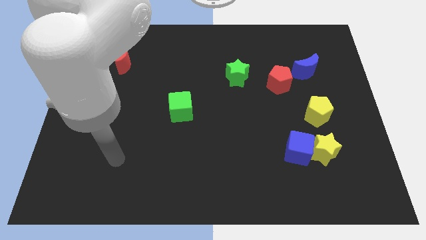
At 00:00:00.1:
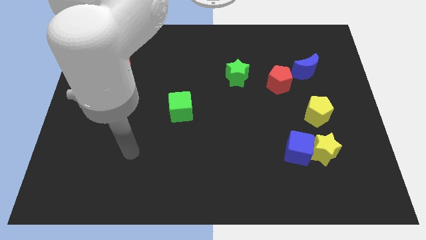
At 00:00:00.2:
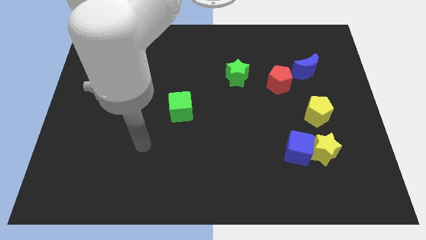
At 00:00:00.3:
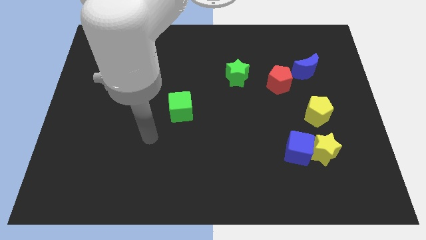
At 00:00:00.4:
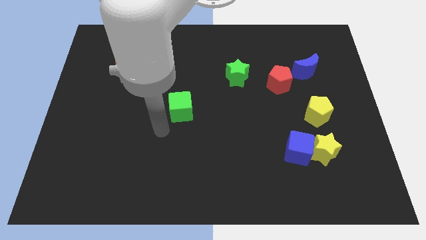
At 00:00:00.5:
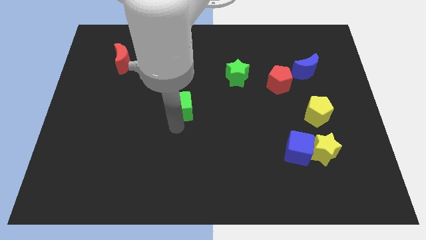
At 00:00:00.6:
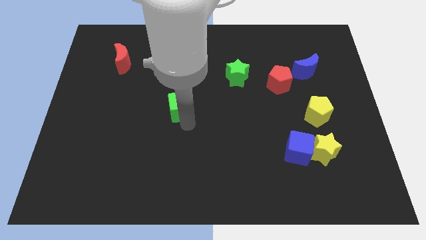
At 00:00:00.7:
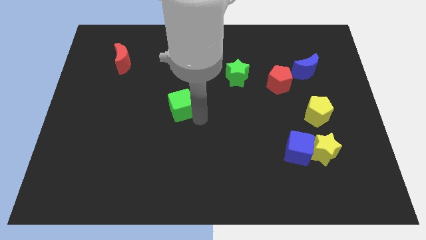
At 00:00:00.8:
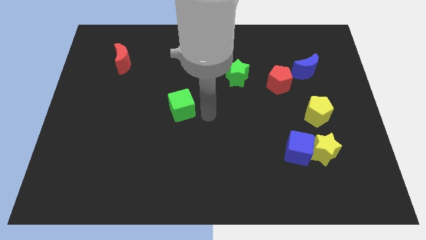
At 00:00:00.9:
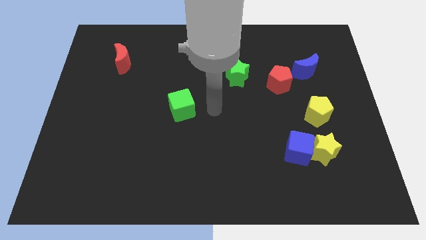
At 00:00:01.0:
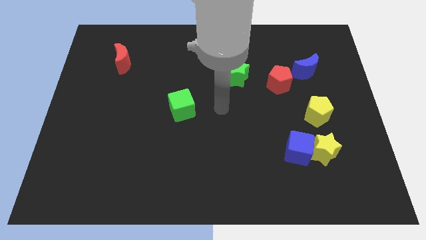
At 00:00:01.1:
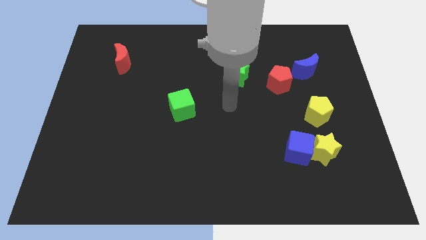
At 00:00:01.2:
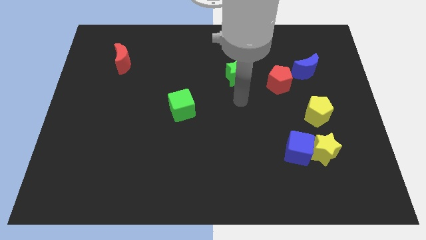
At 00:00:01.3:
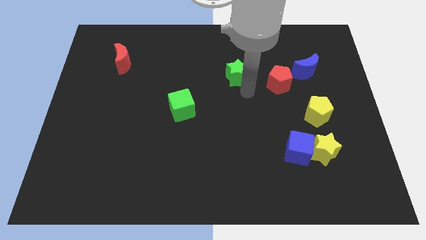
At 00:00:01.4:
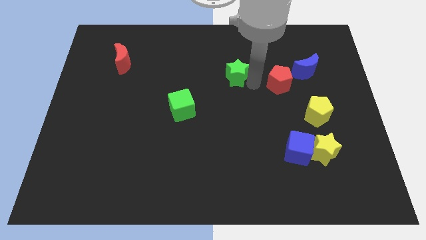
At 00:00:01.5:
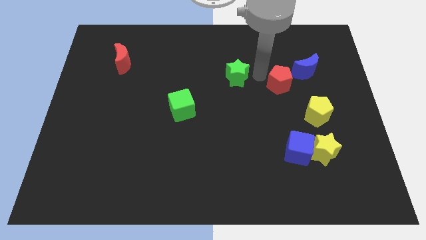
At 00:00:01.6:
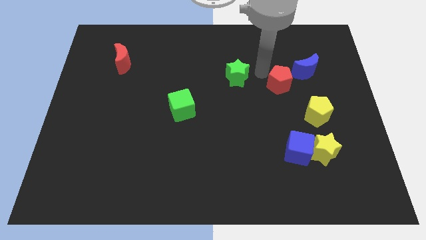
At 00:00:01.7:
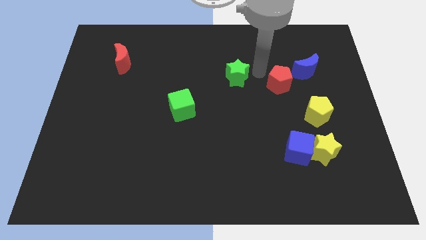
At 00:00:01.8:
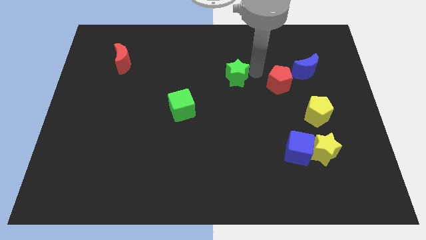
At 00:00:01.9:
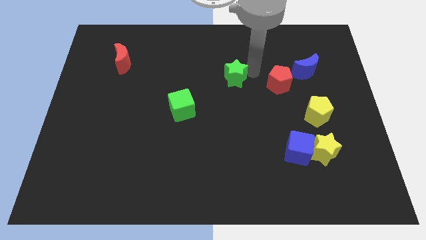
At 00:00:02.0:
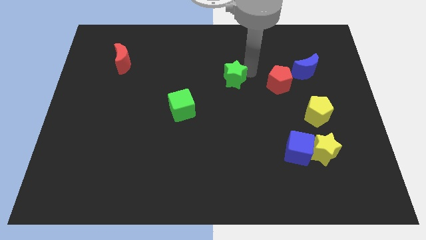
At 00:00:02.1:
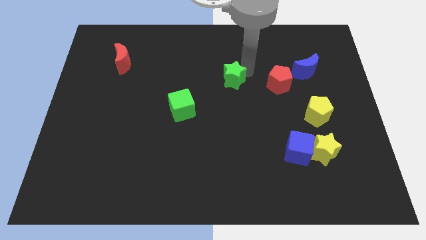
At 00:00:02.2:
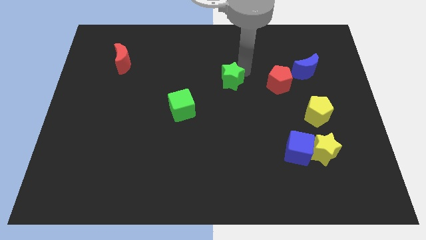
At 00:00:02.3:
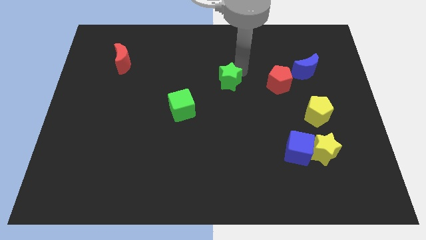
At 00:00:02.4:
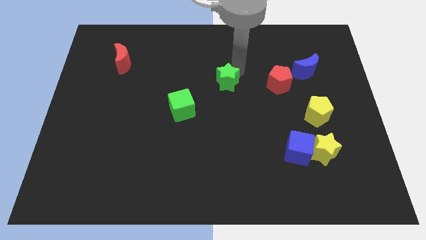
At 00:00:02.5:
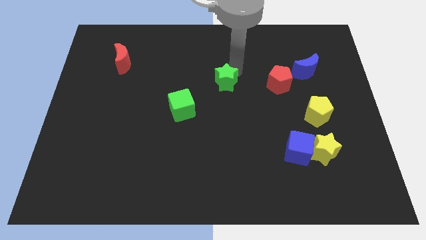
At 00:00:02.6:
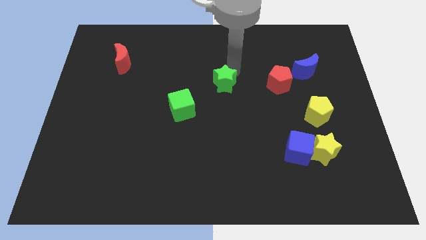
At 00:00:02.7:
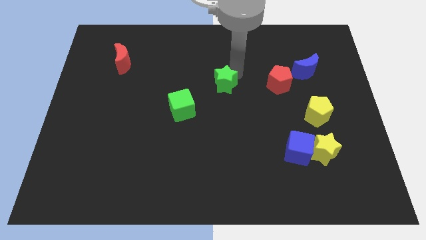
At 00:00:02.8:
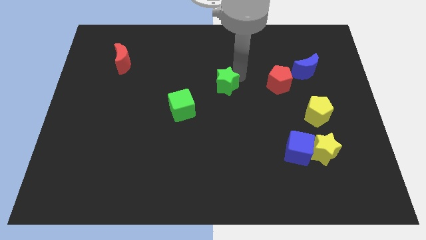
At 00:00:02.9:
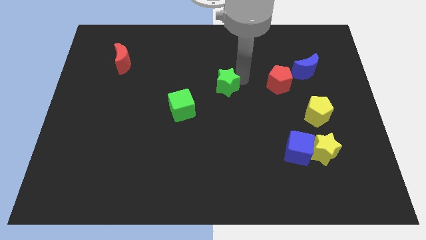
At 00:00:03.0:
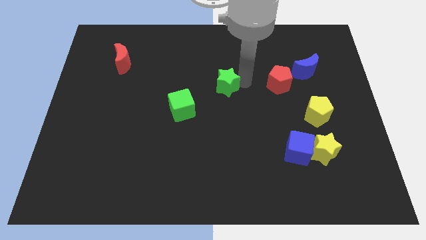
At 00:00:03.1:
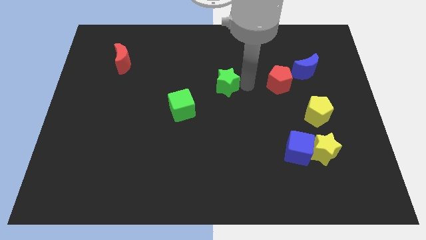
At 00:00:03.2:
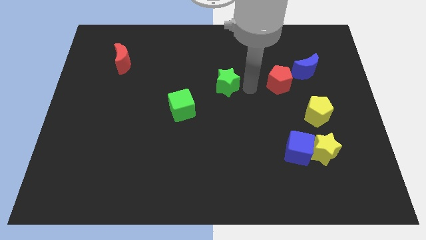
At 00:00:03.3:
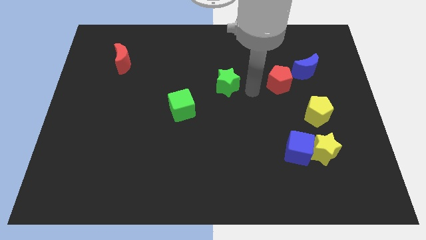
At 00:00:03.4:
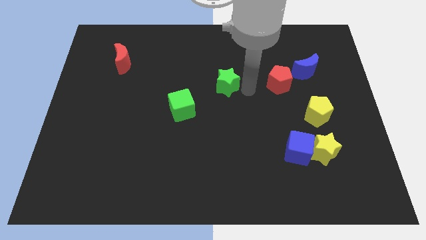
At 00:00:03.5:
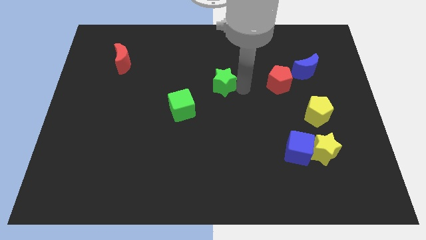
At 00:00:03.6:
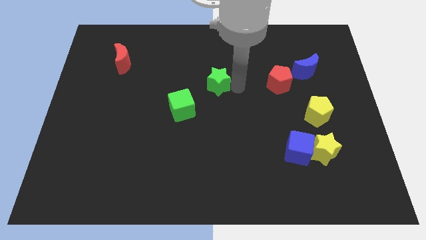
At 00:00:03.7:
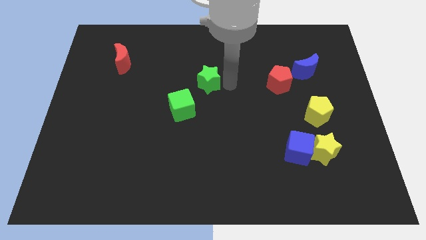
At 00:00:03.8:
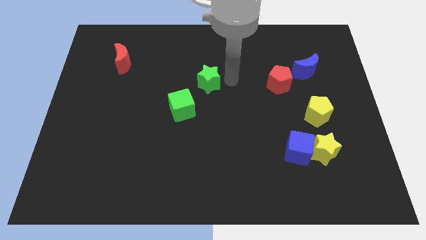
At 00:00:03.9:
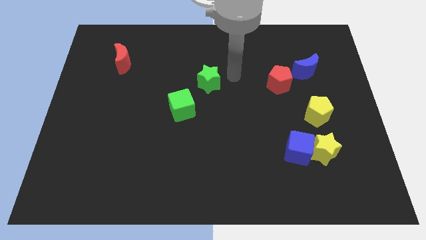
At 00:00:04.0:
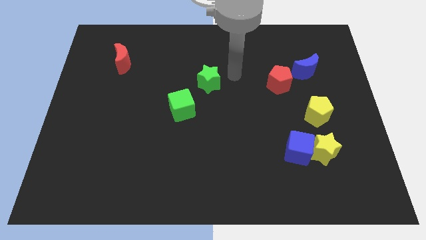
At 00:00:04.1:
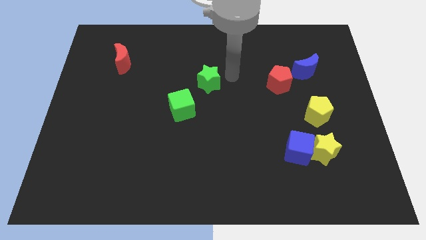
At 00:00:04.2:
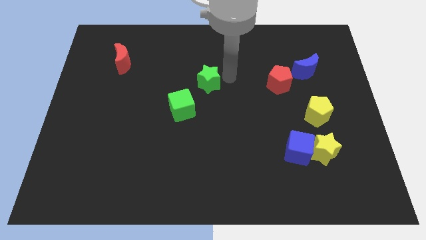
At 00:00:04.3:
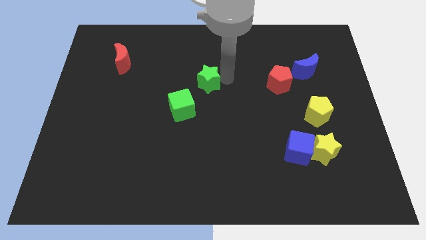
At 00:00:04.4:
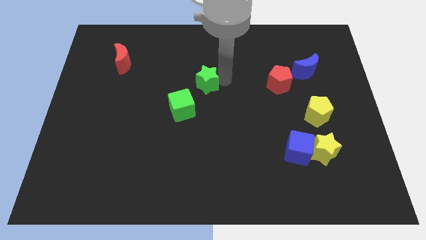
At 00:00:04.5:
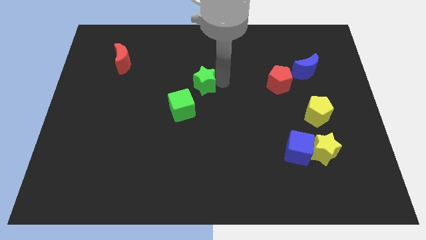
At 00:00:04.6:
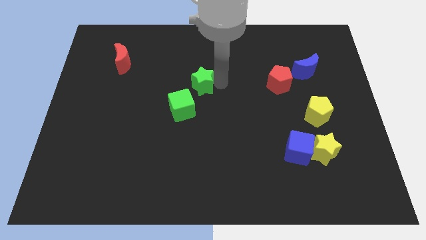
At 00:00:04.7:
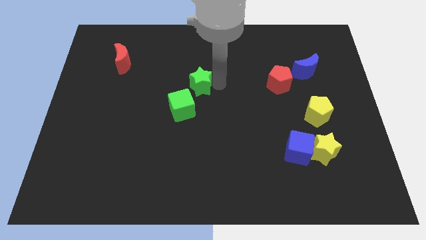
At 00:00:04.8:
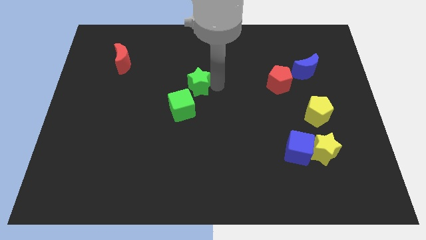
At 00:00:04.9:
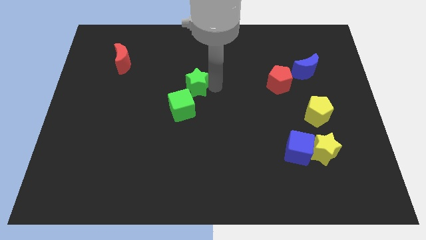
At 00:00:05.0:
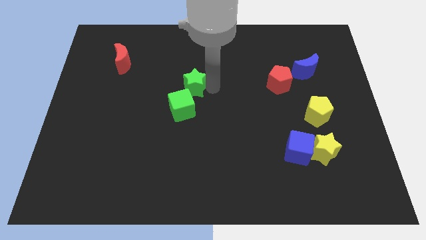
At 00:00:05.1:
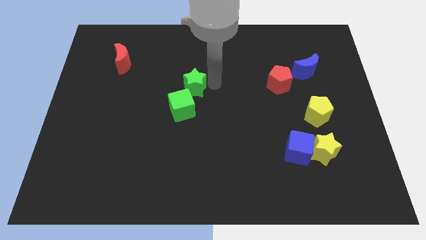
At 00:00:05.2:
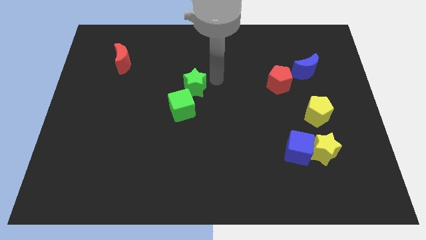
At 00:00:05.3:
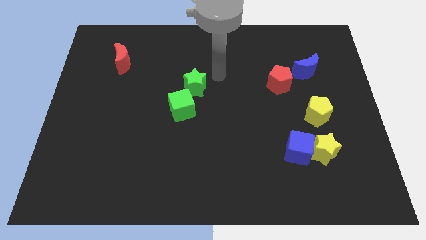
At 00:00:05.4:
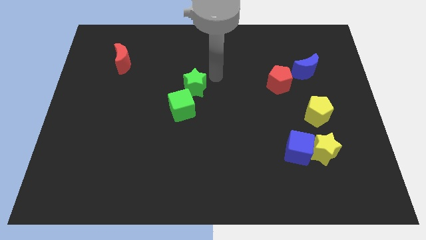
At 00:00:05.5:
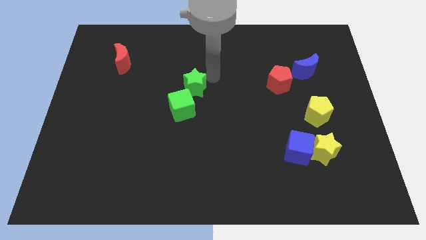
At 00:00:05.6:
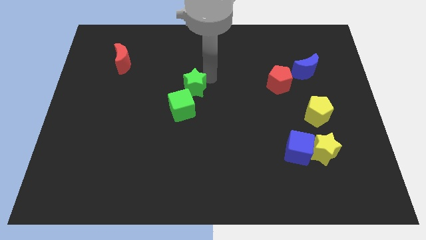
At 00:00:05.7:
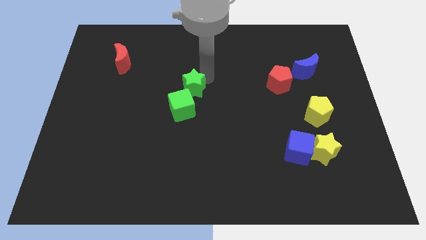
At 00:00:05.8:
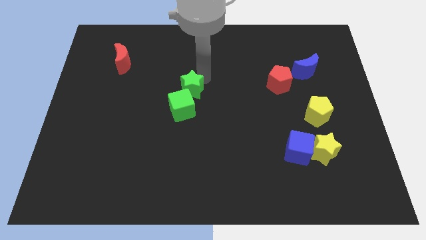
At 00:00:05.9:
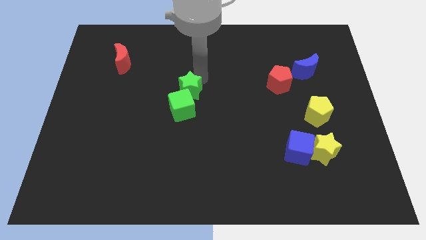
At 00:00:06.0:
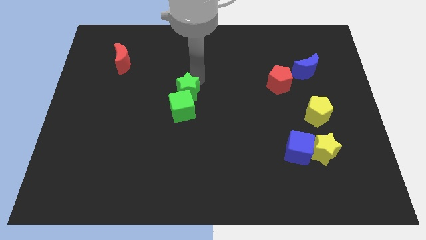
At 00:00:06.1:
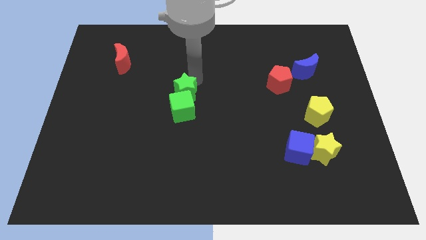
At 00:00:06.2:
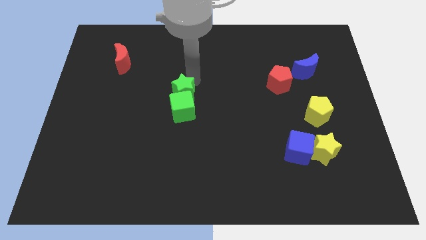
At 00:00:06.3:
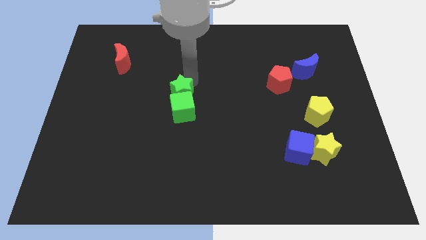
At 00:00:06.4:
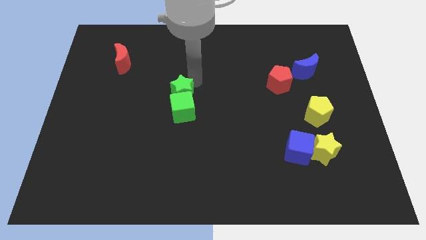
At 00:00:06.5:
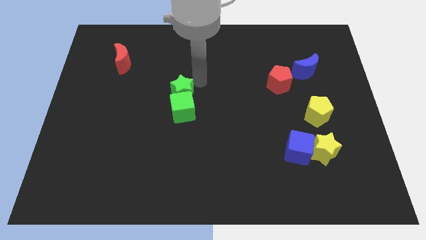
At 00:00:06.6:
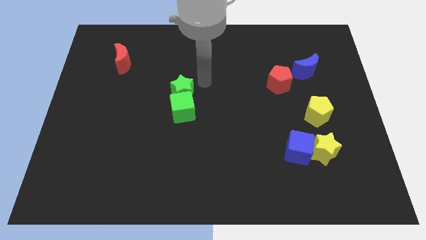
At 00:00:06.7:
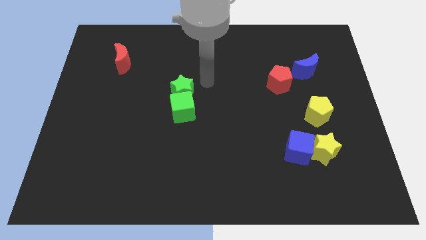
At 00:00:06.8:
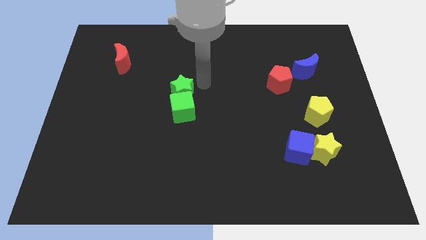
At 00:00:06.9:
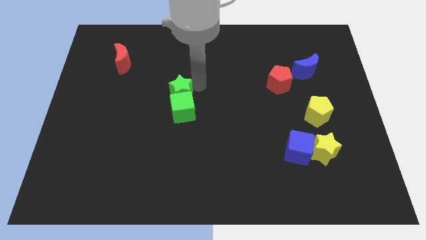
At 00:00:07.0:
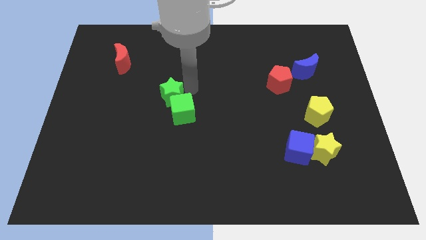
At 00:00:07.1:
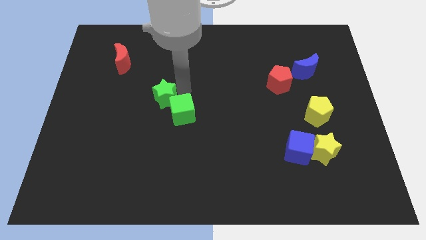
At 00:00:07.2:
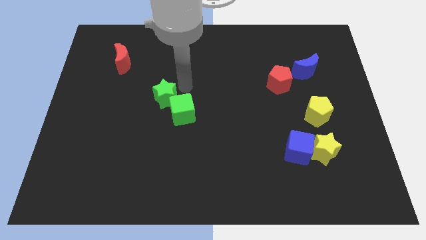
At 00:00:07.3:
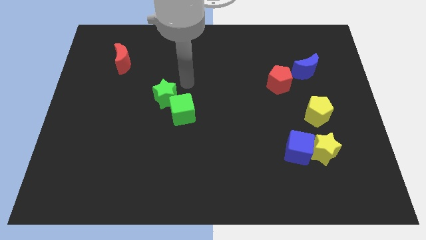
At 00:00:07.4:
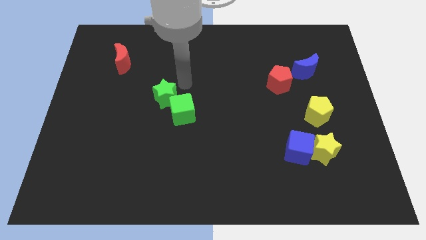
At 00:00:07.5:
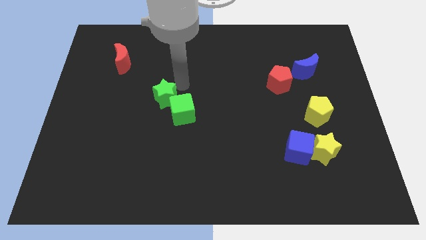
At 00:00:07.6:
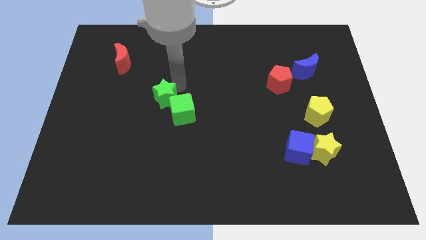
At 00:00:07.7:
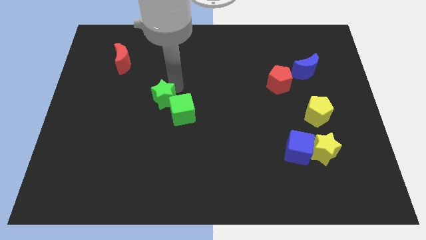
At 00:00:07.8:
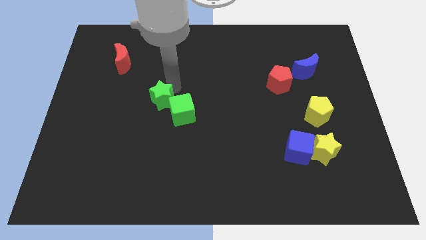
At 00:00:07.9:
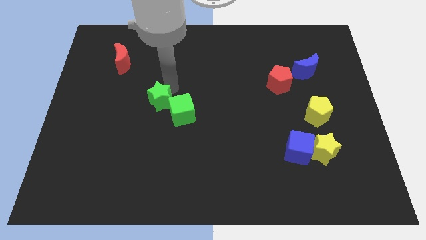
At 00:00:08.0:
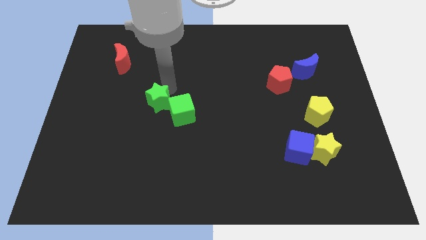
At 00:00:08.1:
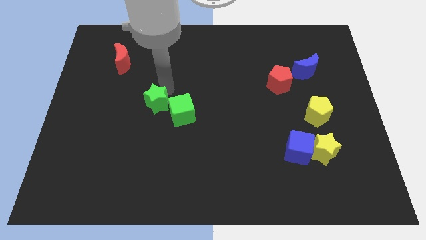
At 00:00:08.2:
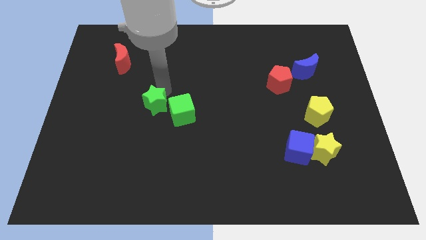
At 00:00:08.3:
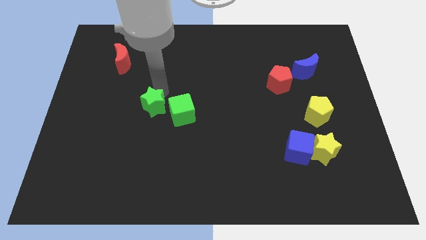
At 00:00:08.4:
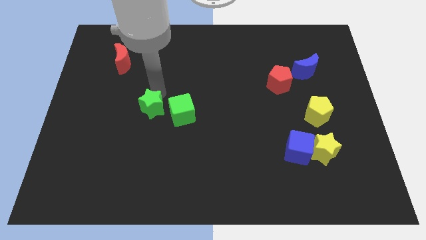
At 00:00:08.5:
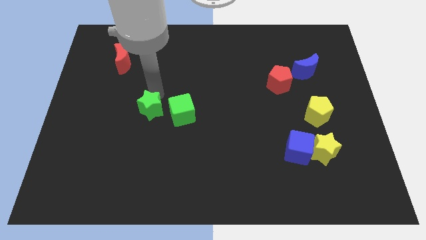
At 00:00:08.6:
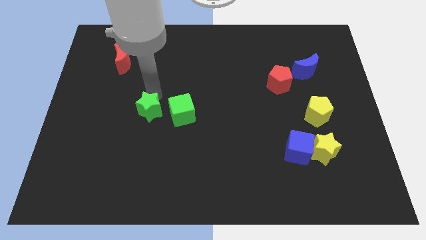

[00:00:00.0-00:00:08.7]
move the green star down and to the left
